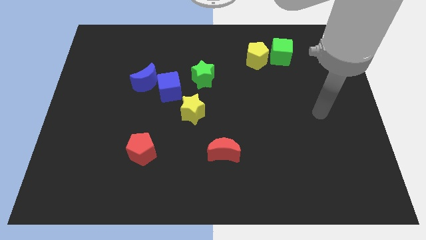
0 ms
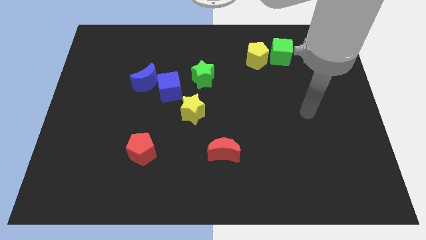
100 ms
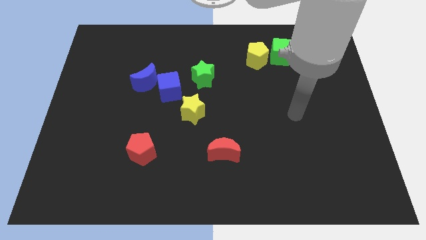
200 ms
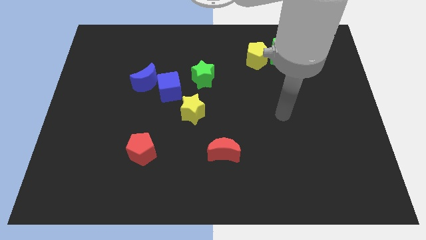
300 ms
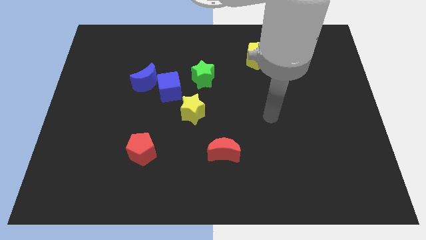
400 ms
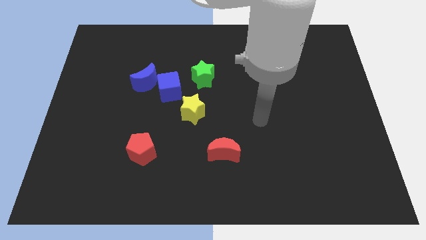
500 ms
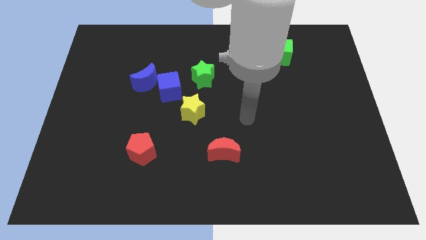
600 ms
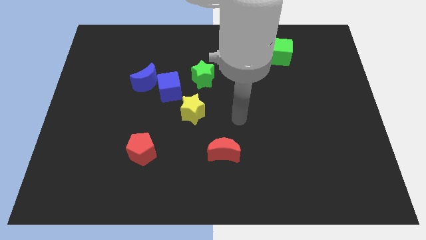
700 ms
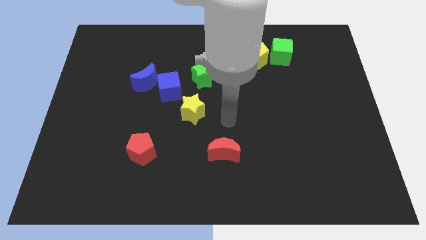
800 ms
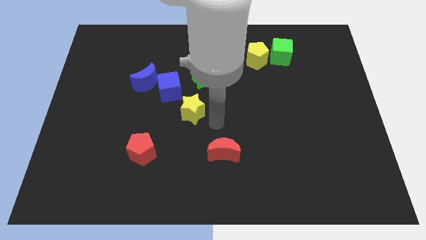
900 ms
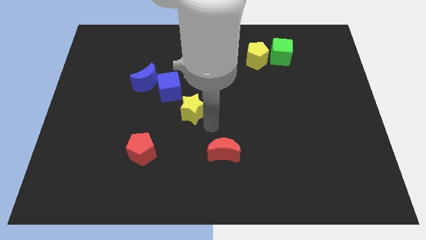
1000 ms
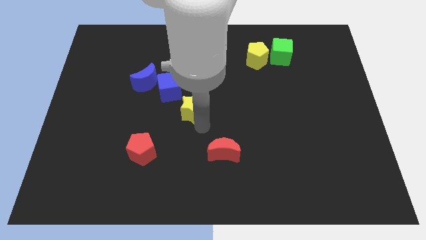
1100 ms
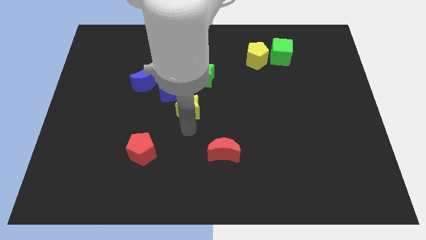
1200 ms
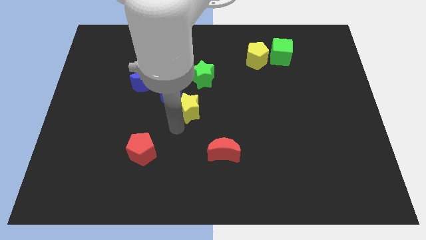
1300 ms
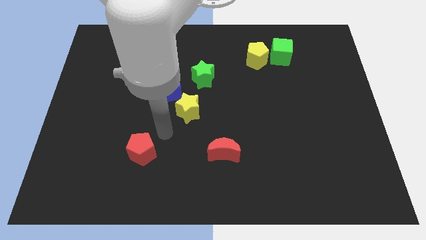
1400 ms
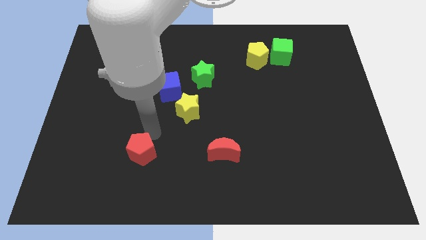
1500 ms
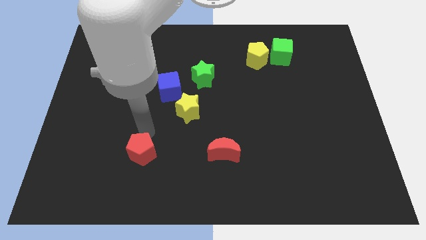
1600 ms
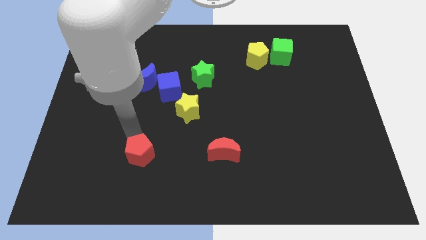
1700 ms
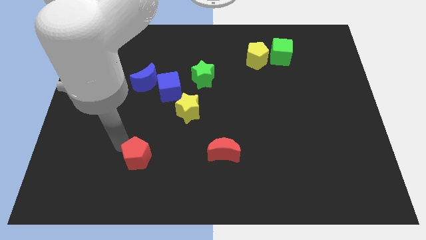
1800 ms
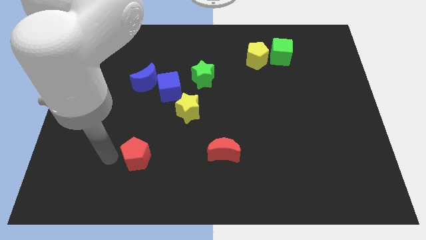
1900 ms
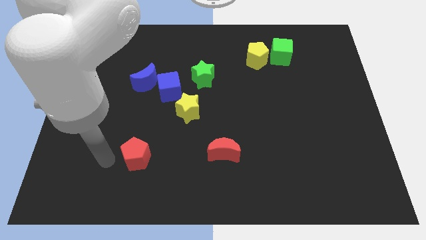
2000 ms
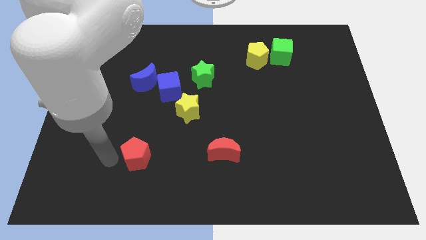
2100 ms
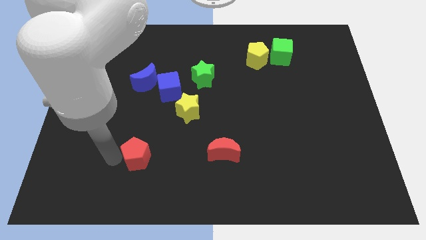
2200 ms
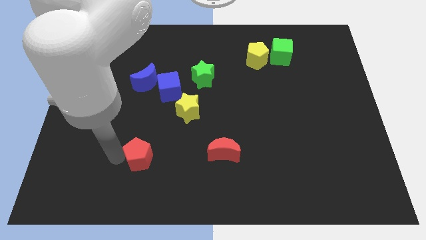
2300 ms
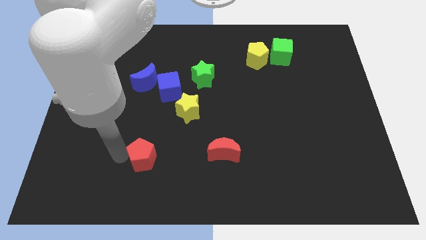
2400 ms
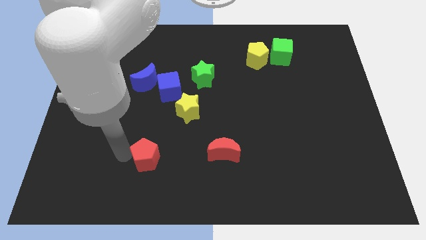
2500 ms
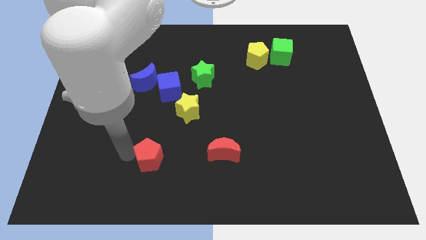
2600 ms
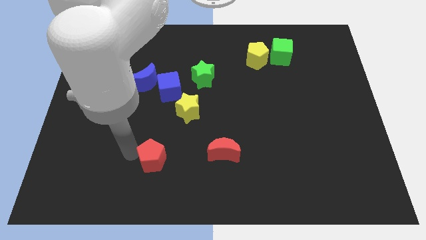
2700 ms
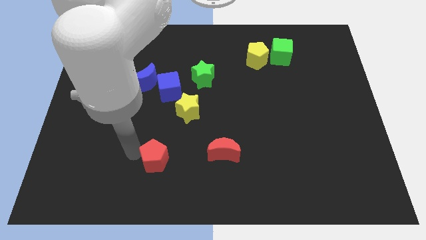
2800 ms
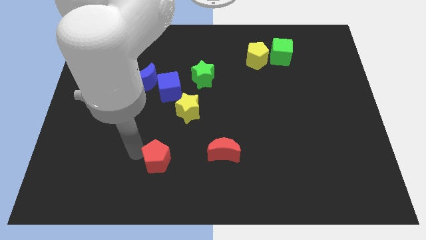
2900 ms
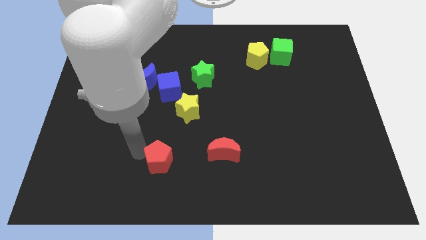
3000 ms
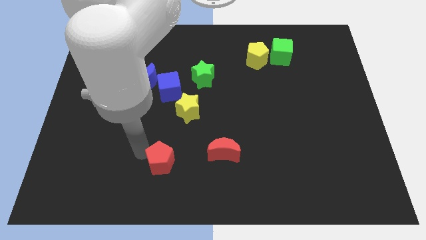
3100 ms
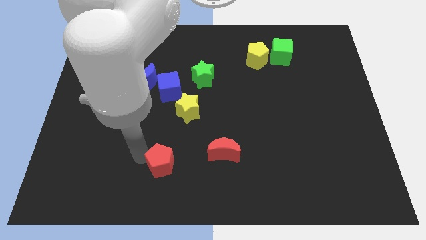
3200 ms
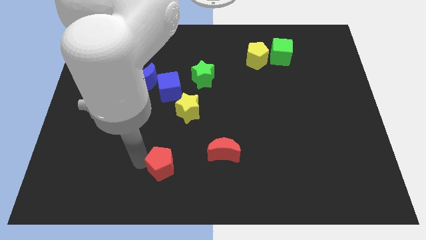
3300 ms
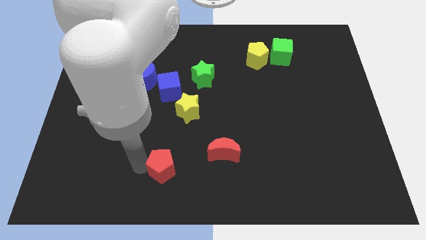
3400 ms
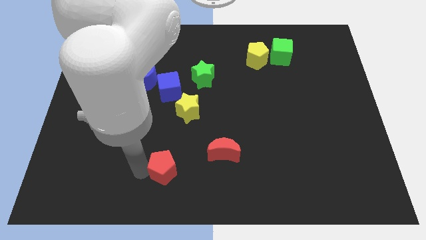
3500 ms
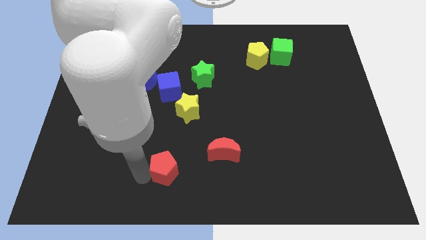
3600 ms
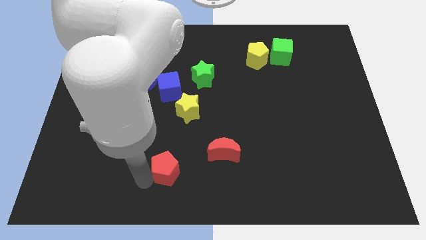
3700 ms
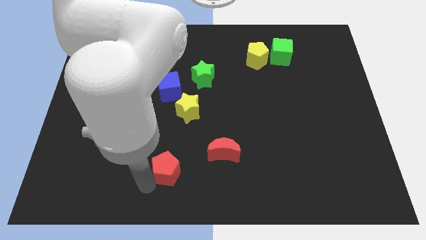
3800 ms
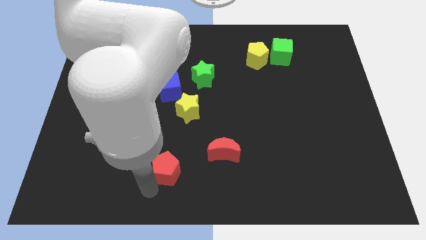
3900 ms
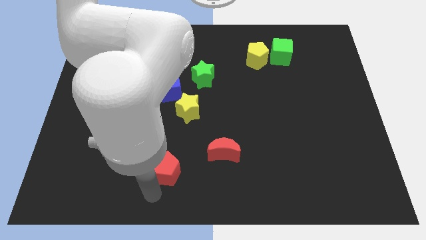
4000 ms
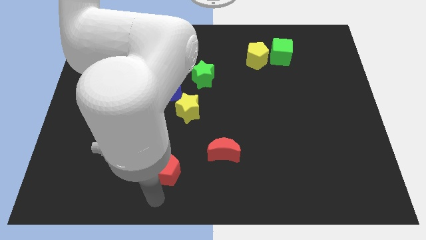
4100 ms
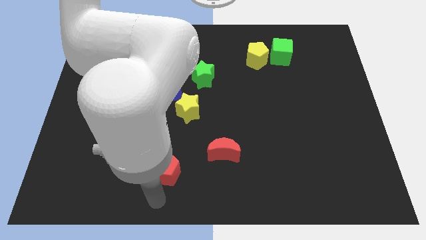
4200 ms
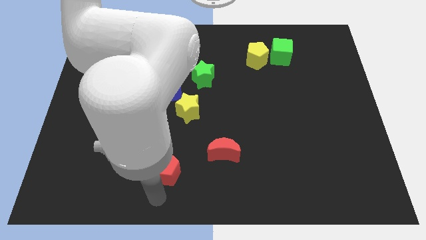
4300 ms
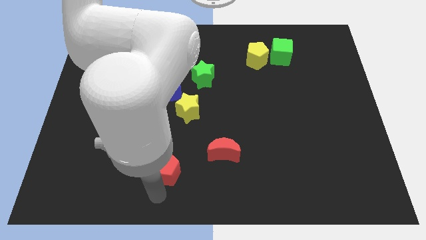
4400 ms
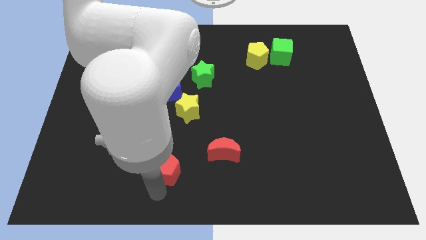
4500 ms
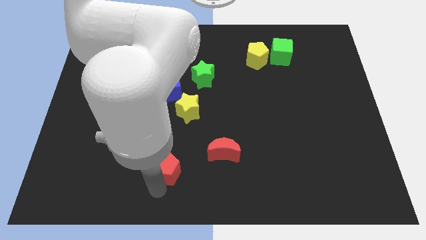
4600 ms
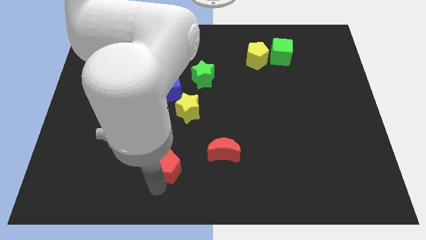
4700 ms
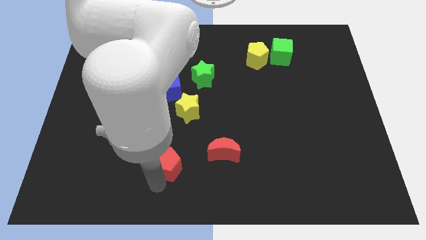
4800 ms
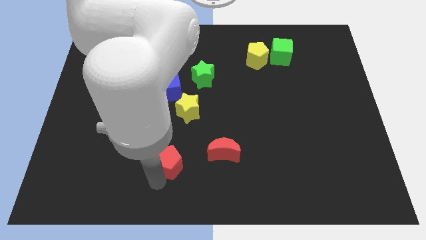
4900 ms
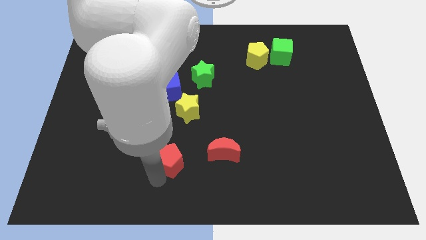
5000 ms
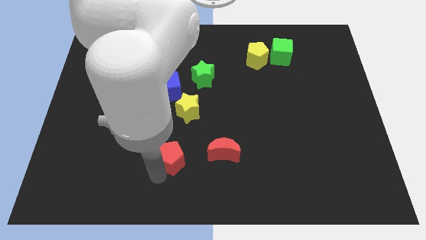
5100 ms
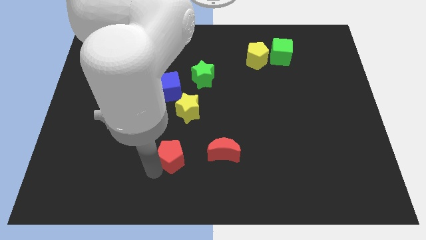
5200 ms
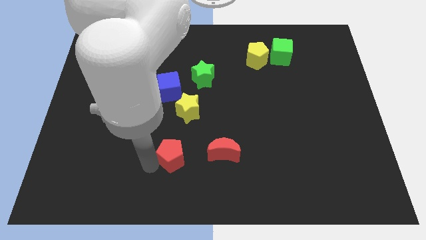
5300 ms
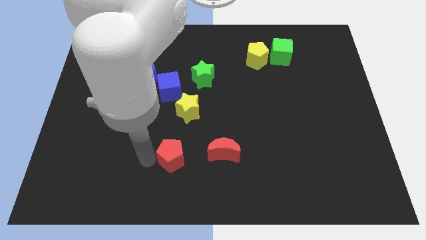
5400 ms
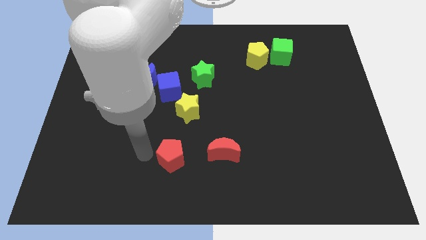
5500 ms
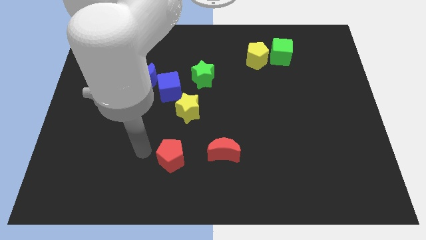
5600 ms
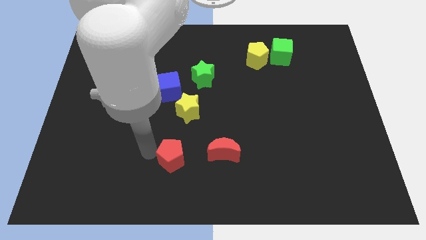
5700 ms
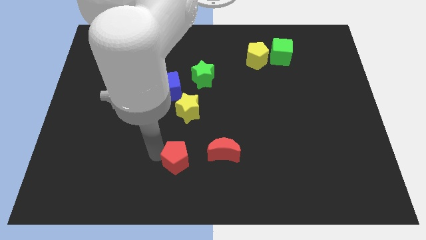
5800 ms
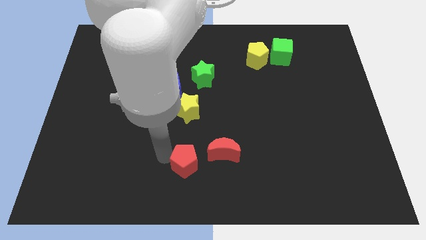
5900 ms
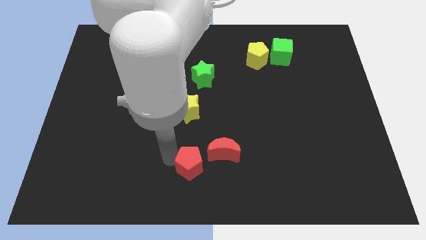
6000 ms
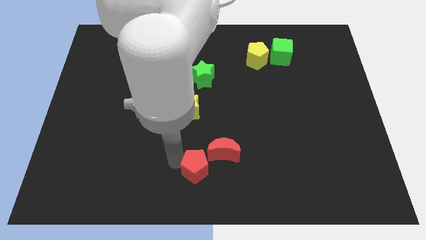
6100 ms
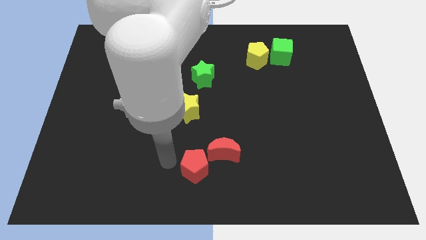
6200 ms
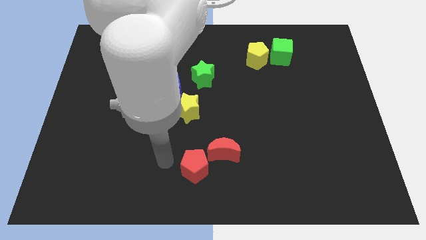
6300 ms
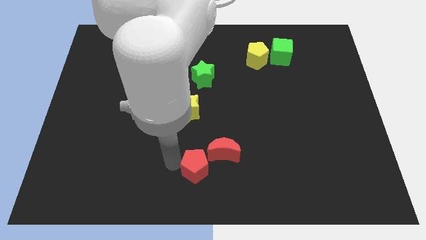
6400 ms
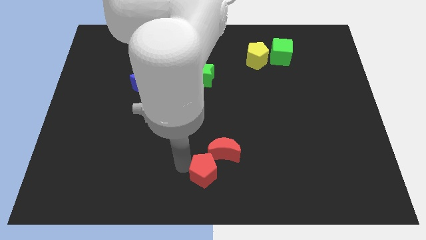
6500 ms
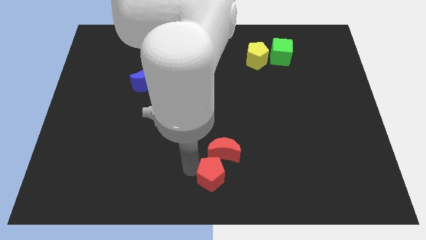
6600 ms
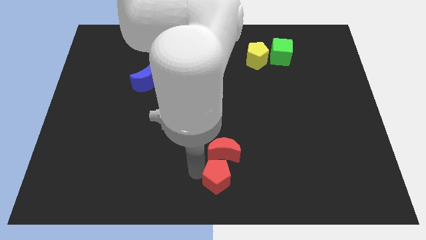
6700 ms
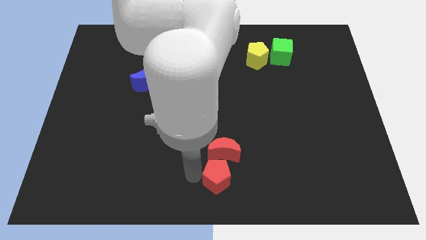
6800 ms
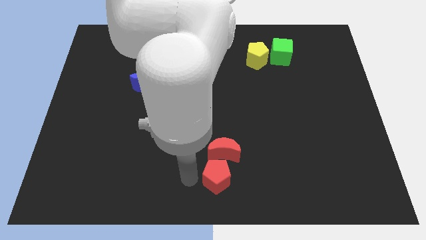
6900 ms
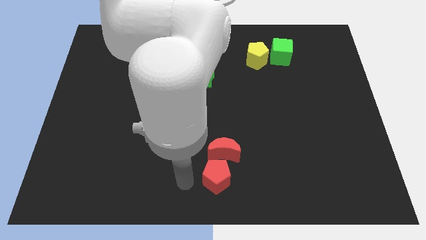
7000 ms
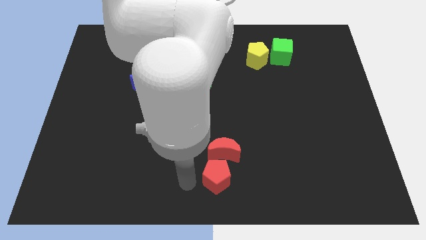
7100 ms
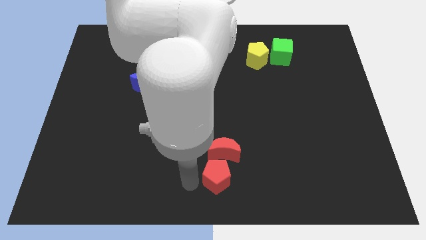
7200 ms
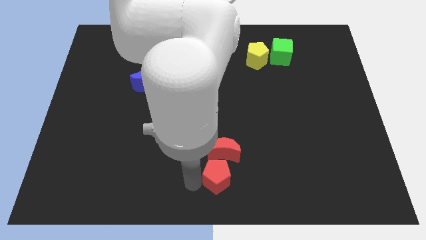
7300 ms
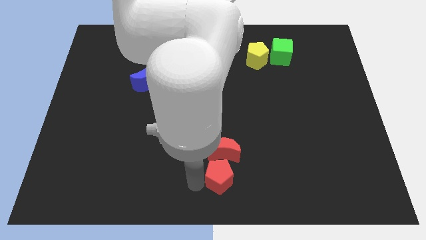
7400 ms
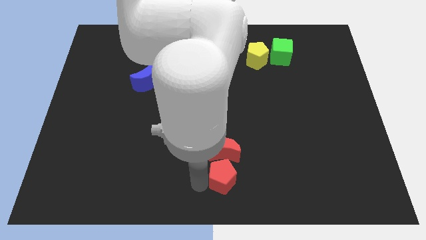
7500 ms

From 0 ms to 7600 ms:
slide the red pentagon diagonally down and to the right of the red moon
